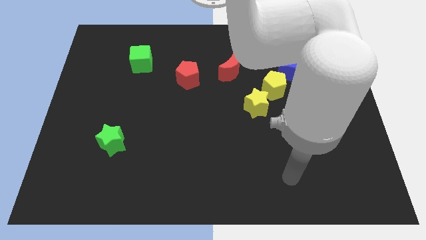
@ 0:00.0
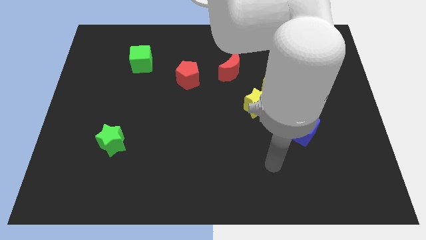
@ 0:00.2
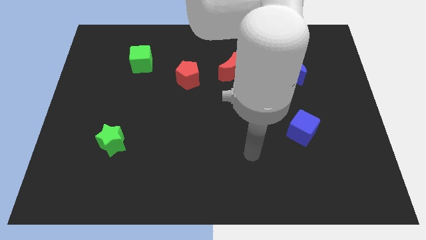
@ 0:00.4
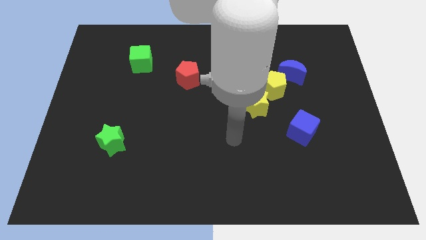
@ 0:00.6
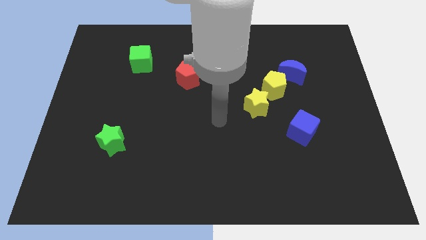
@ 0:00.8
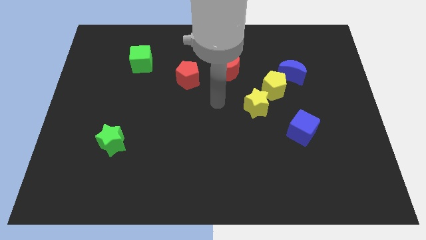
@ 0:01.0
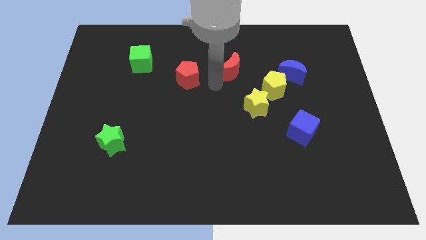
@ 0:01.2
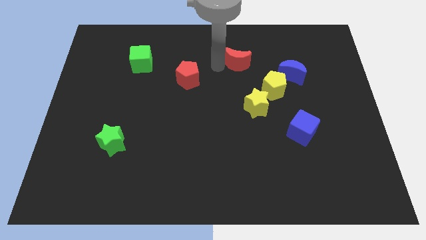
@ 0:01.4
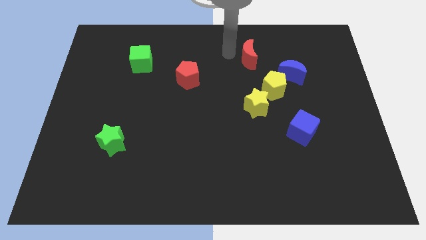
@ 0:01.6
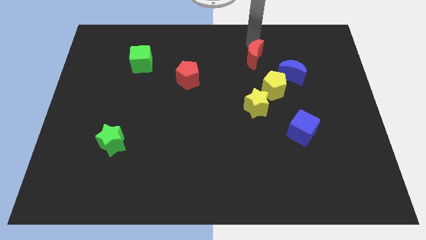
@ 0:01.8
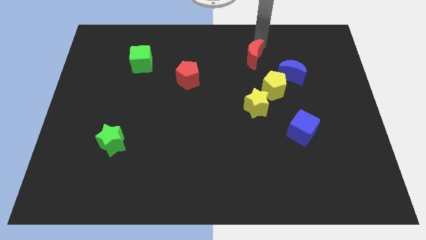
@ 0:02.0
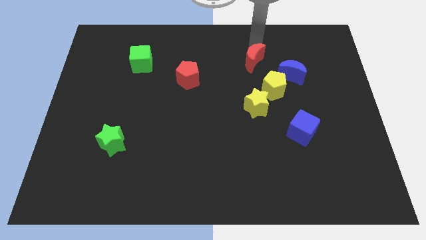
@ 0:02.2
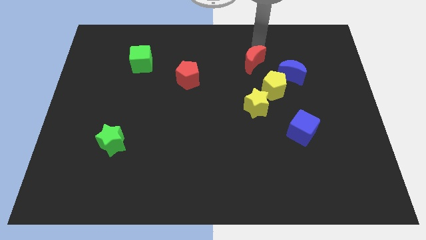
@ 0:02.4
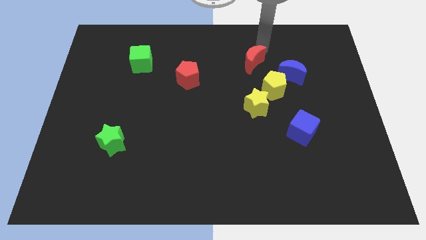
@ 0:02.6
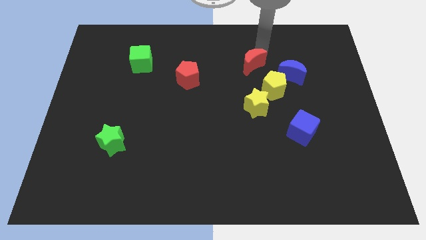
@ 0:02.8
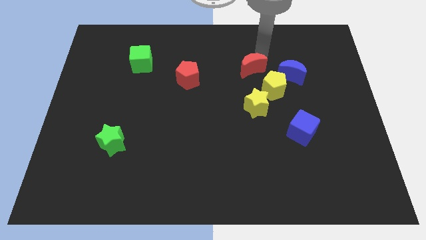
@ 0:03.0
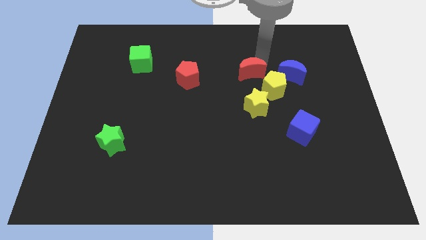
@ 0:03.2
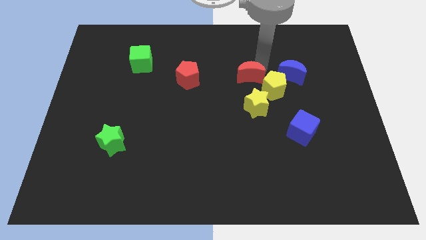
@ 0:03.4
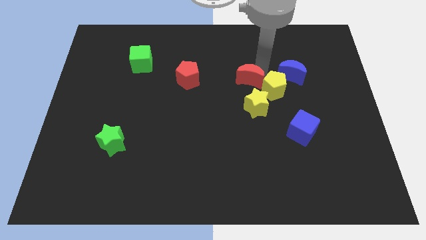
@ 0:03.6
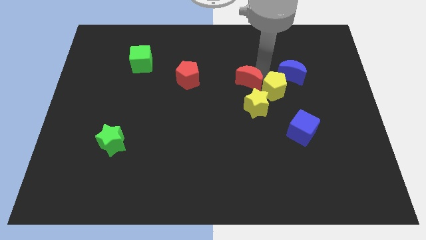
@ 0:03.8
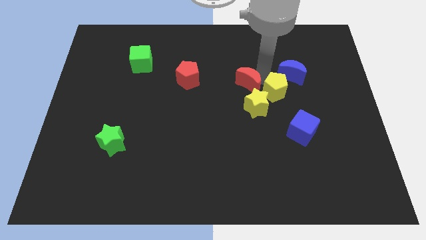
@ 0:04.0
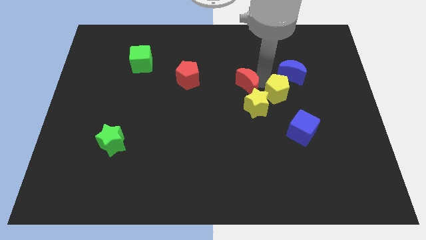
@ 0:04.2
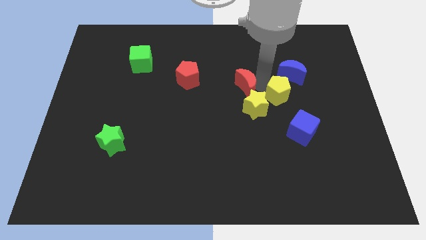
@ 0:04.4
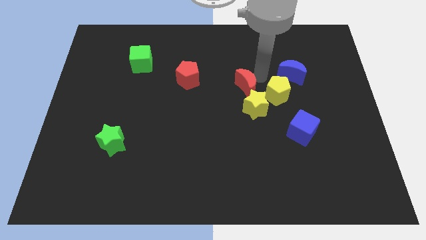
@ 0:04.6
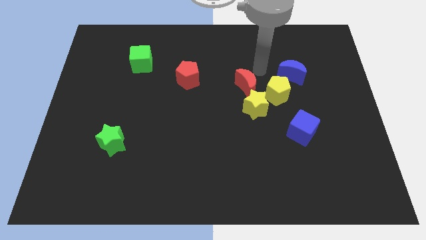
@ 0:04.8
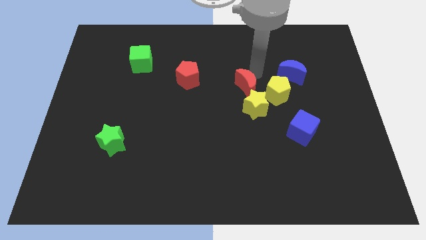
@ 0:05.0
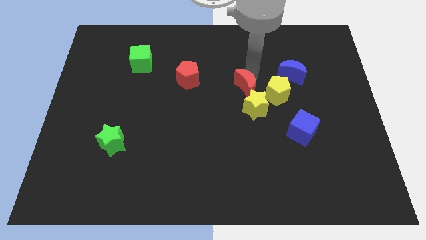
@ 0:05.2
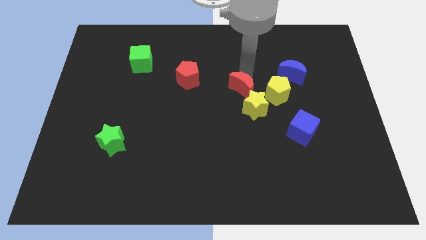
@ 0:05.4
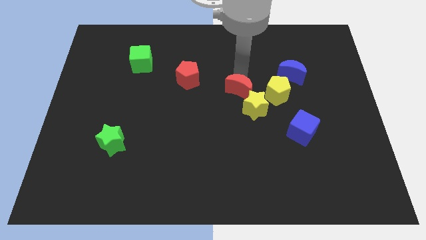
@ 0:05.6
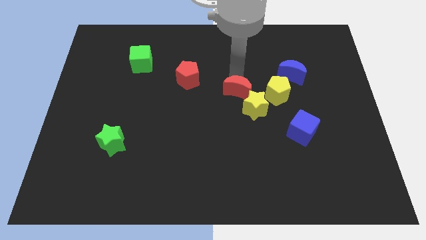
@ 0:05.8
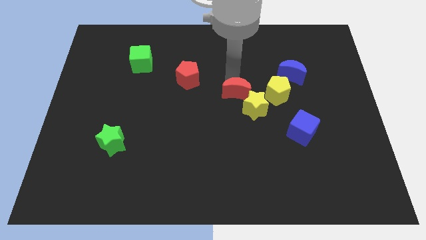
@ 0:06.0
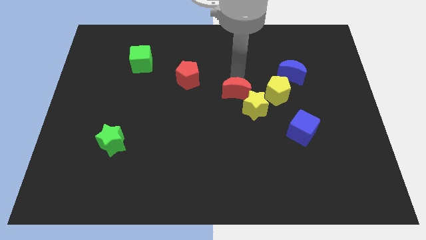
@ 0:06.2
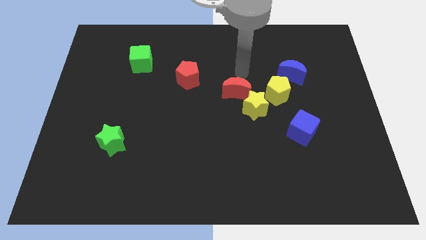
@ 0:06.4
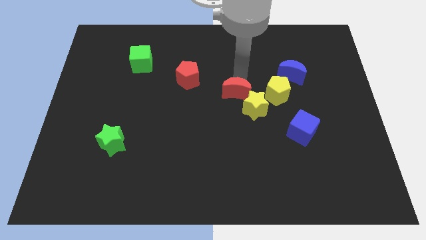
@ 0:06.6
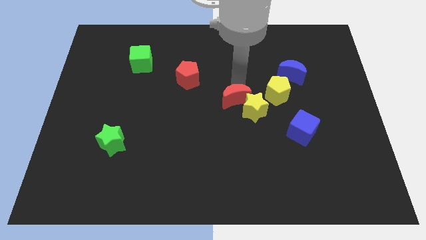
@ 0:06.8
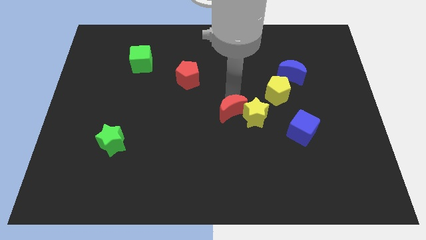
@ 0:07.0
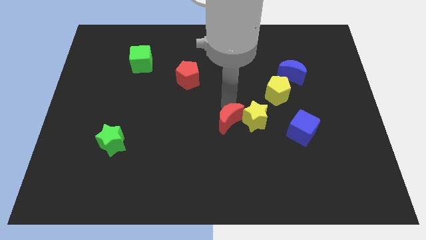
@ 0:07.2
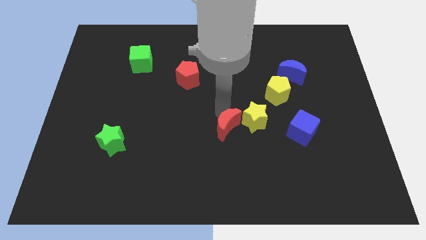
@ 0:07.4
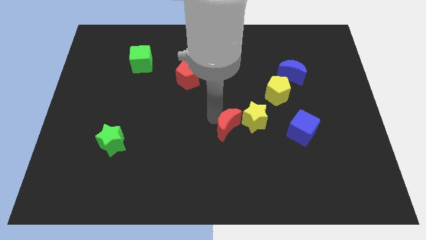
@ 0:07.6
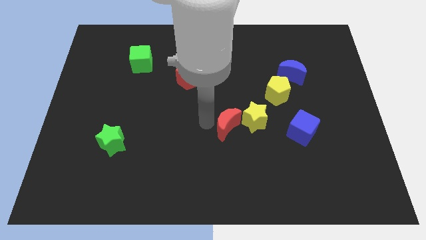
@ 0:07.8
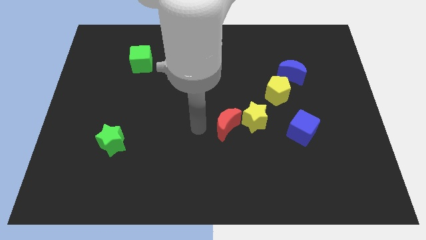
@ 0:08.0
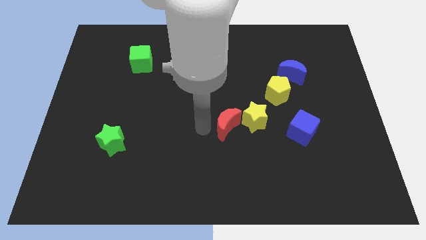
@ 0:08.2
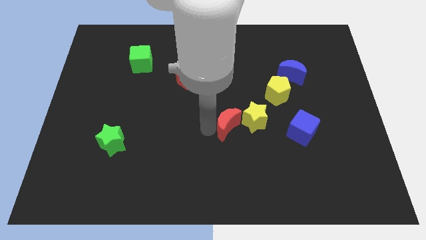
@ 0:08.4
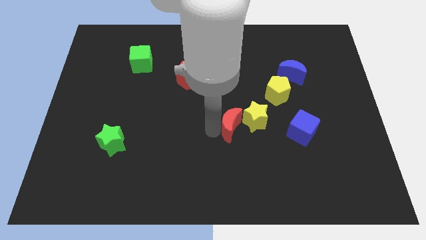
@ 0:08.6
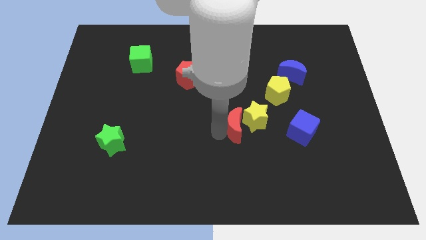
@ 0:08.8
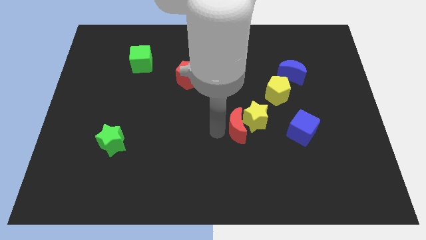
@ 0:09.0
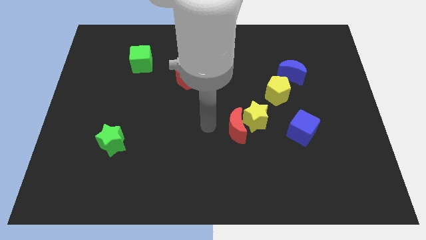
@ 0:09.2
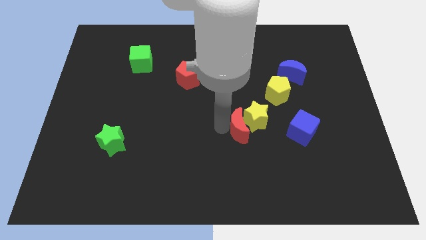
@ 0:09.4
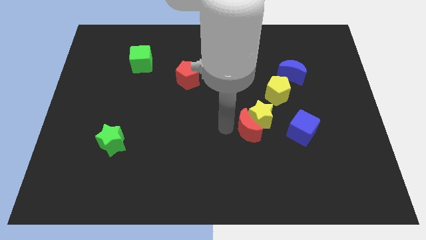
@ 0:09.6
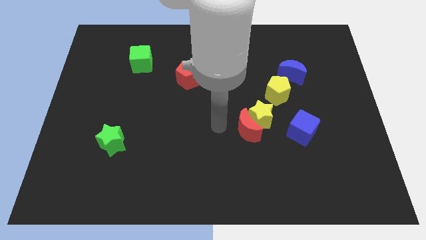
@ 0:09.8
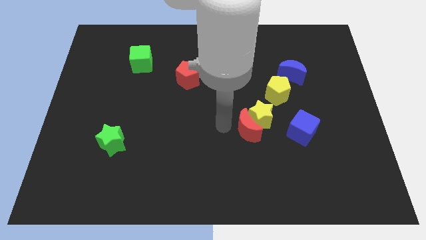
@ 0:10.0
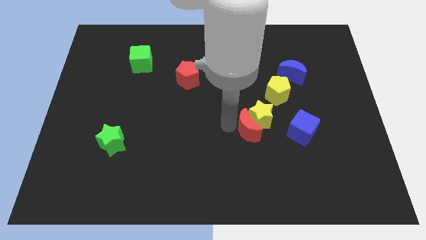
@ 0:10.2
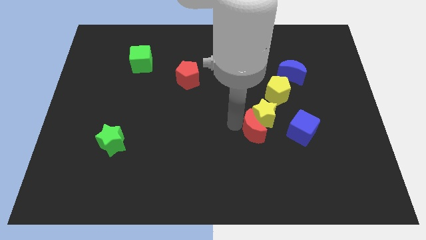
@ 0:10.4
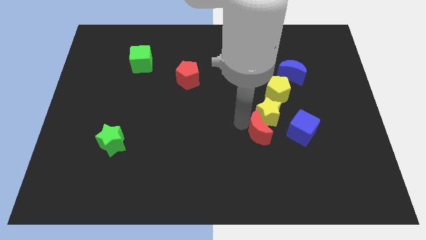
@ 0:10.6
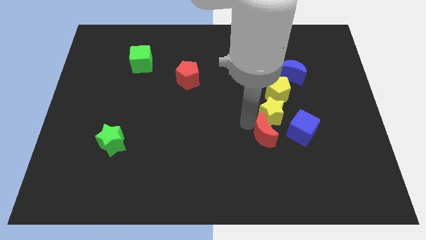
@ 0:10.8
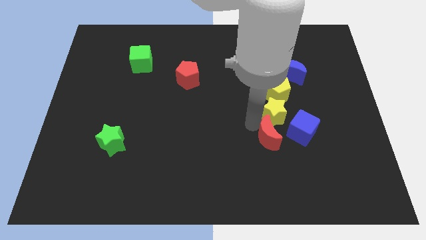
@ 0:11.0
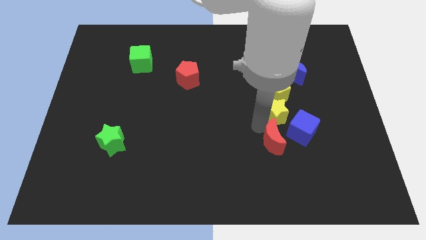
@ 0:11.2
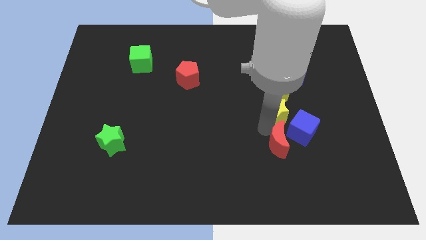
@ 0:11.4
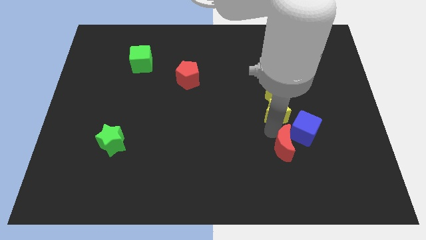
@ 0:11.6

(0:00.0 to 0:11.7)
move the red moon diagonally down and to the right

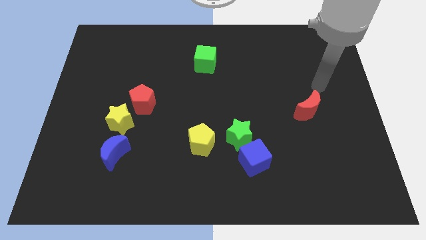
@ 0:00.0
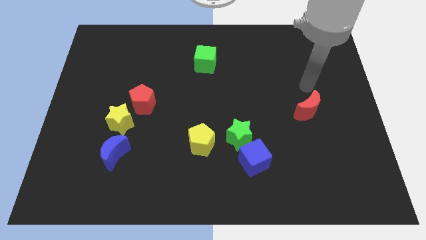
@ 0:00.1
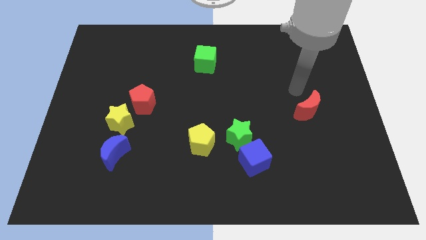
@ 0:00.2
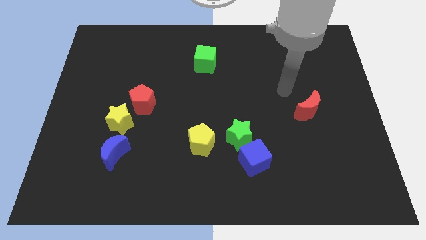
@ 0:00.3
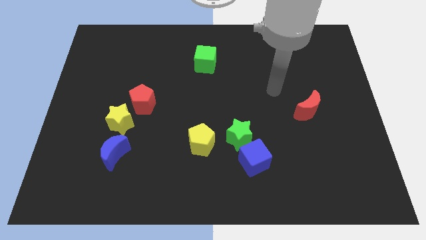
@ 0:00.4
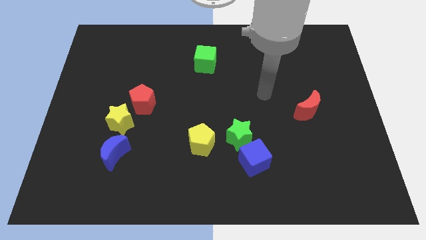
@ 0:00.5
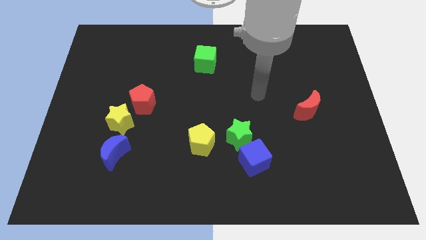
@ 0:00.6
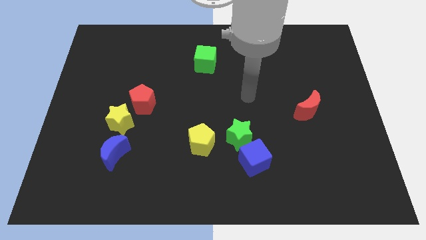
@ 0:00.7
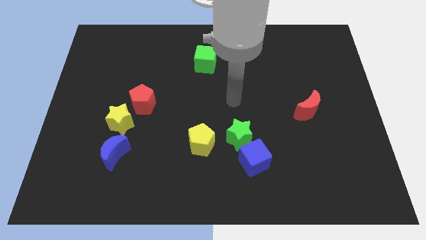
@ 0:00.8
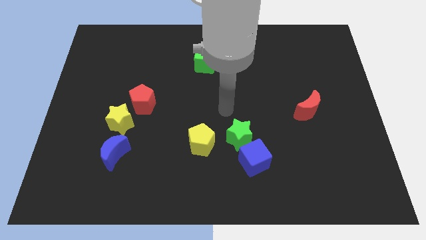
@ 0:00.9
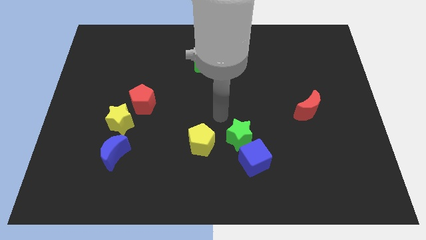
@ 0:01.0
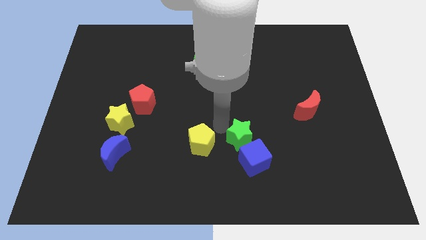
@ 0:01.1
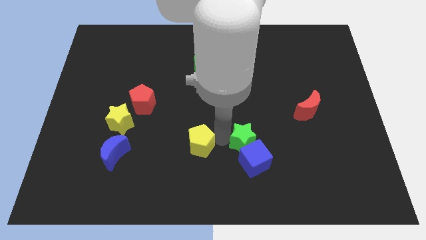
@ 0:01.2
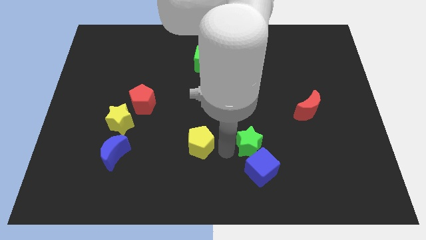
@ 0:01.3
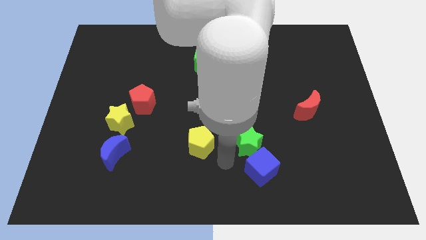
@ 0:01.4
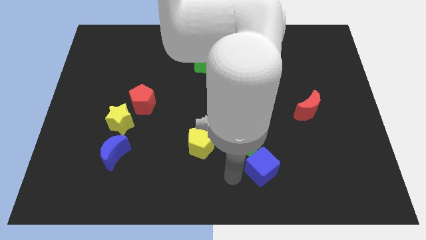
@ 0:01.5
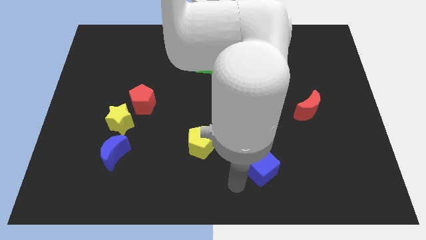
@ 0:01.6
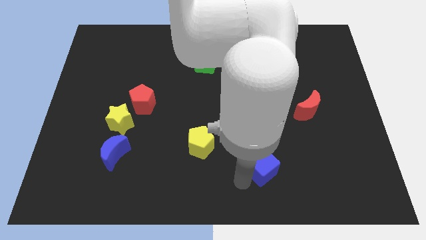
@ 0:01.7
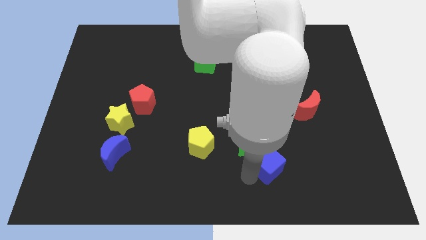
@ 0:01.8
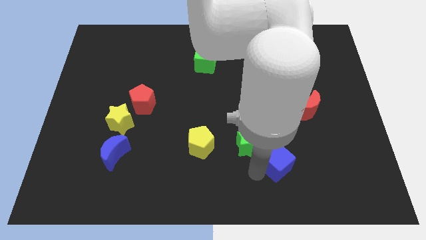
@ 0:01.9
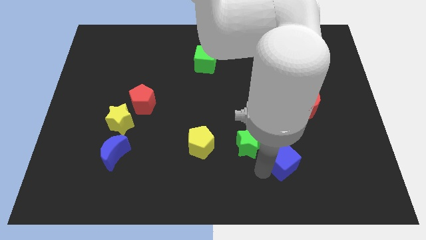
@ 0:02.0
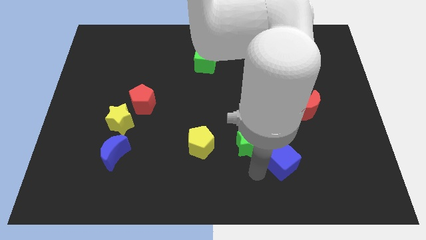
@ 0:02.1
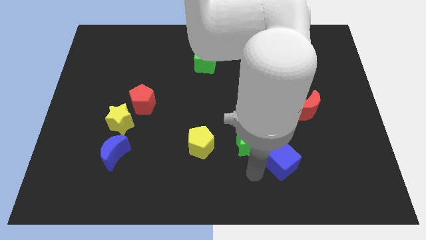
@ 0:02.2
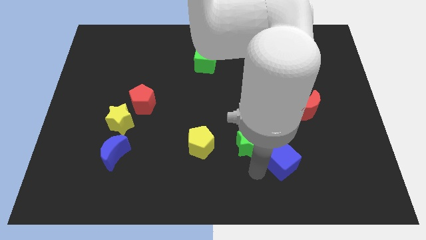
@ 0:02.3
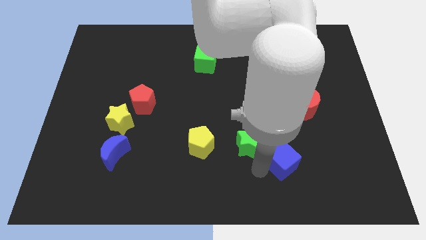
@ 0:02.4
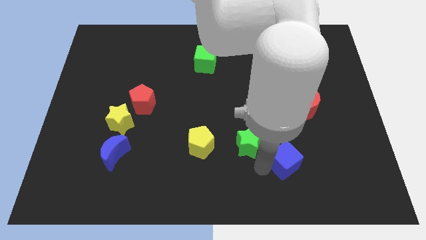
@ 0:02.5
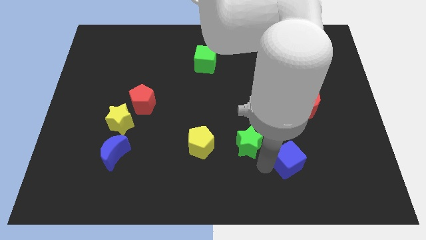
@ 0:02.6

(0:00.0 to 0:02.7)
slightly slide the blue cube right
